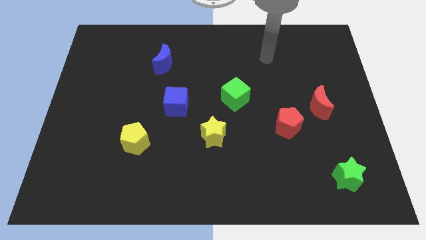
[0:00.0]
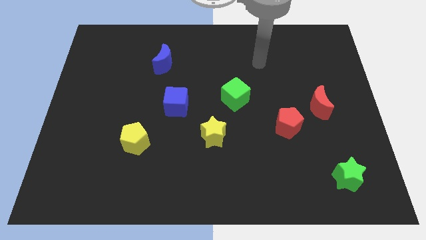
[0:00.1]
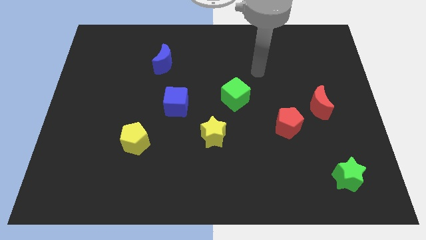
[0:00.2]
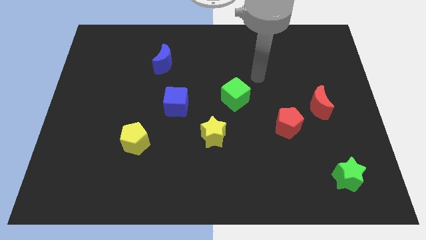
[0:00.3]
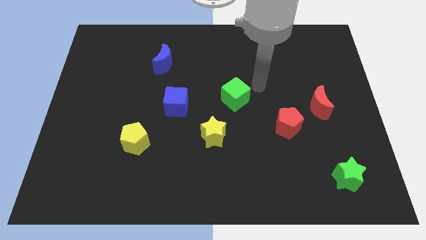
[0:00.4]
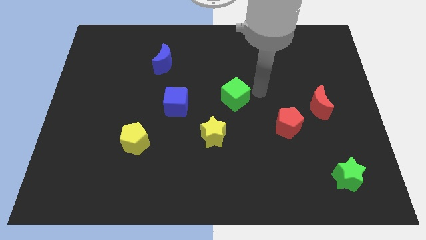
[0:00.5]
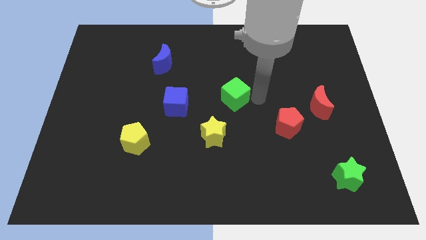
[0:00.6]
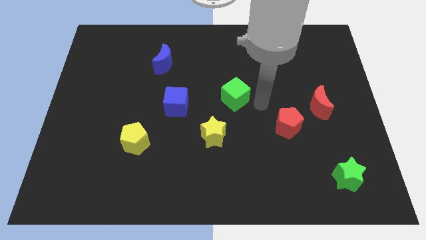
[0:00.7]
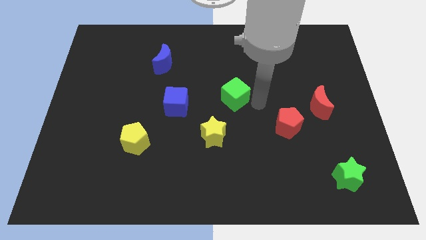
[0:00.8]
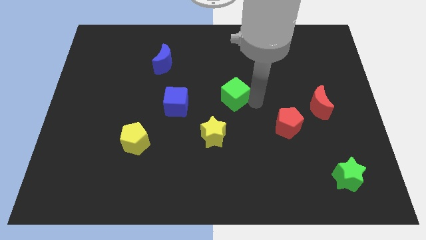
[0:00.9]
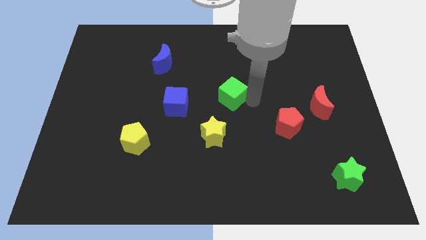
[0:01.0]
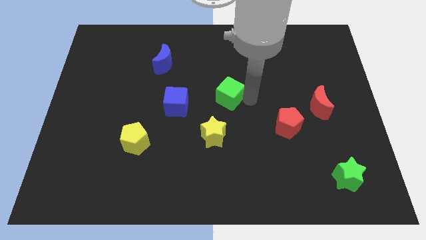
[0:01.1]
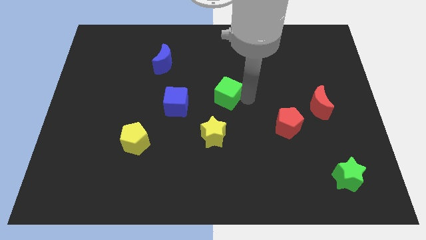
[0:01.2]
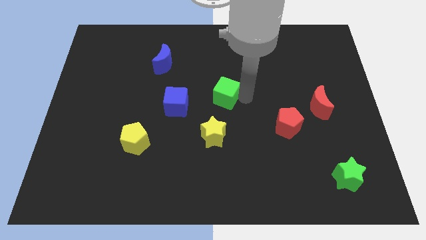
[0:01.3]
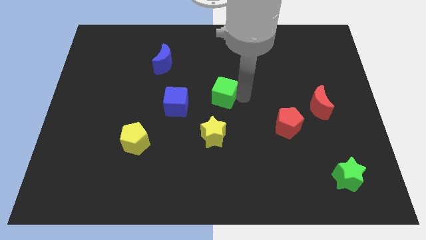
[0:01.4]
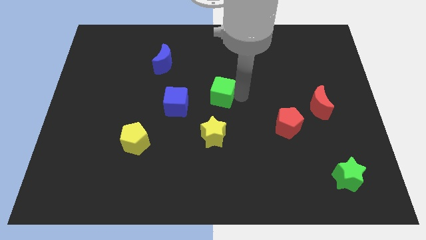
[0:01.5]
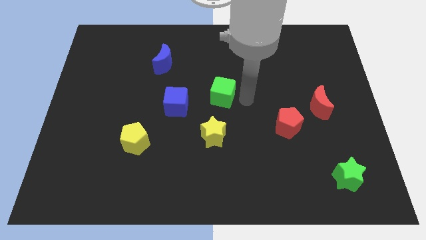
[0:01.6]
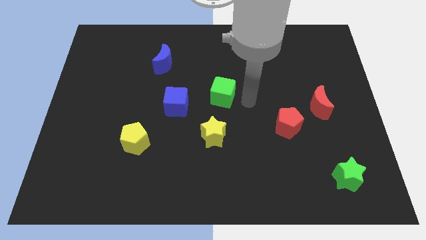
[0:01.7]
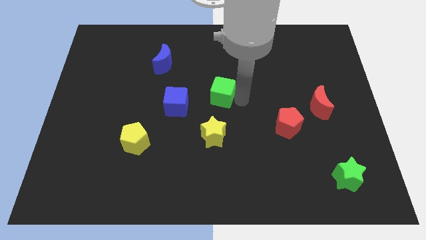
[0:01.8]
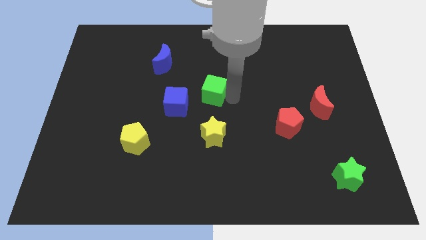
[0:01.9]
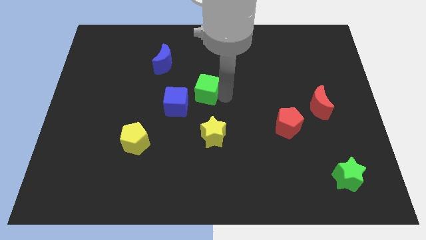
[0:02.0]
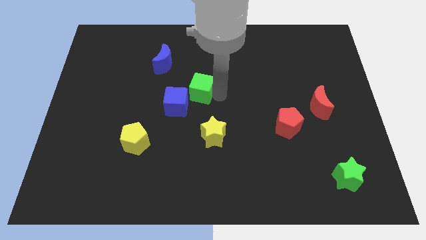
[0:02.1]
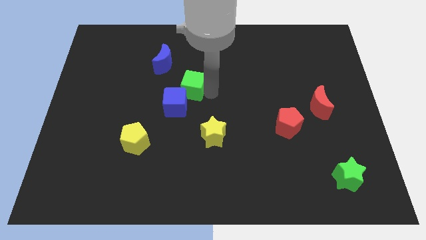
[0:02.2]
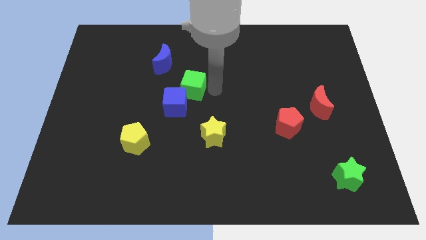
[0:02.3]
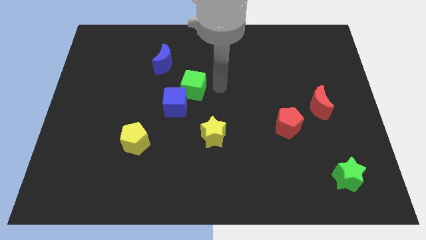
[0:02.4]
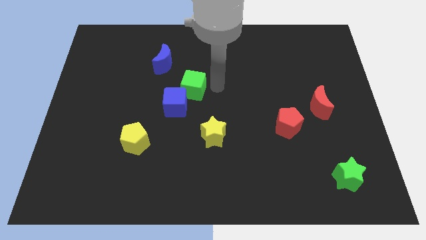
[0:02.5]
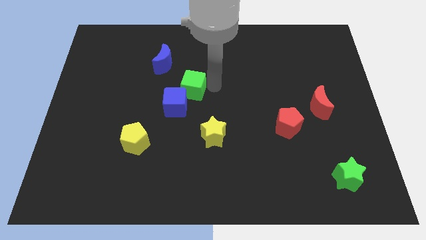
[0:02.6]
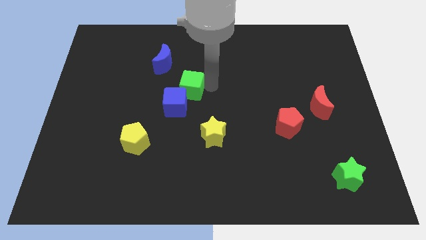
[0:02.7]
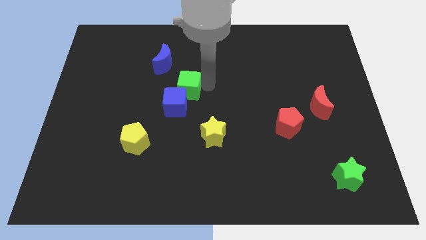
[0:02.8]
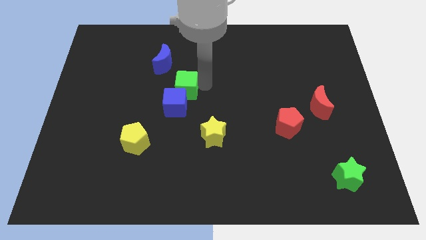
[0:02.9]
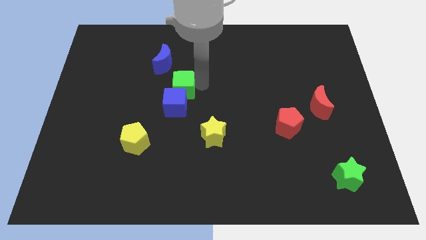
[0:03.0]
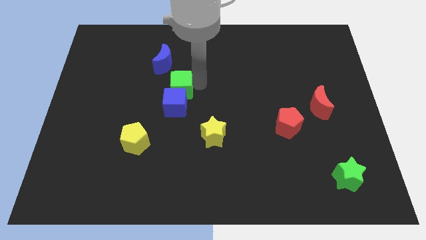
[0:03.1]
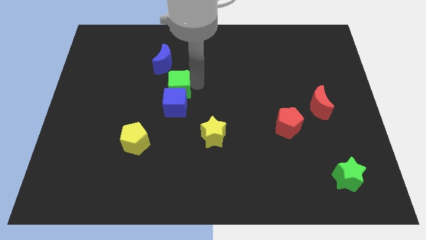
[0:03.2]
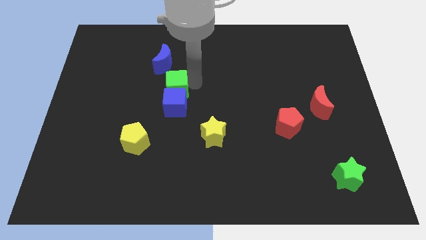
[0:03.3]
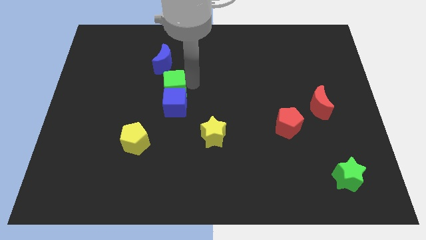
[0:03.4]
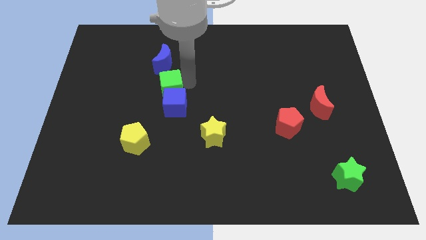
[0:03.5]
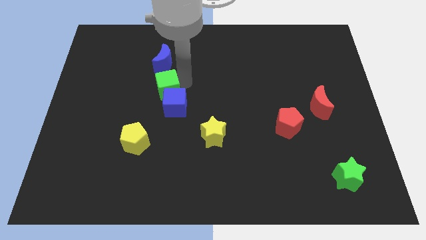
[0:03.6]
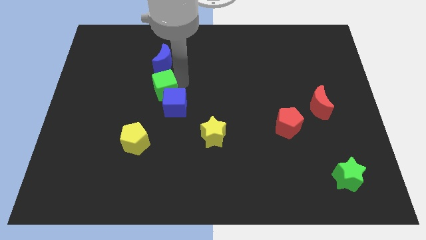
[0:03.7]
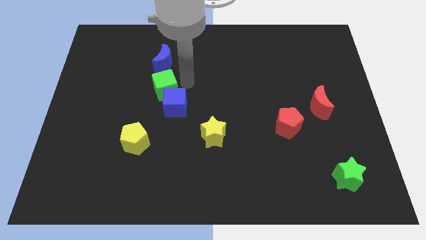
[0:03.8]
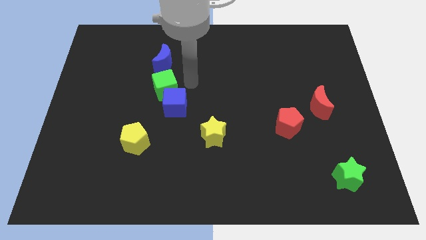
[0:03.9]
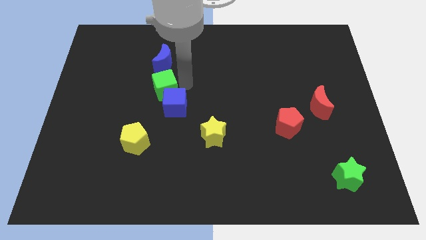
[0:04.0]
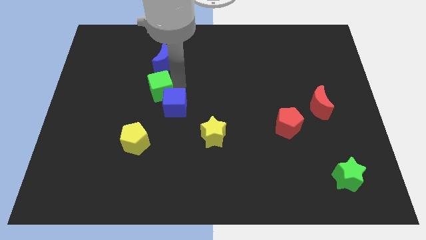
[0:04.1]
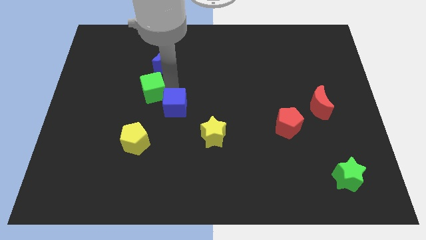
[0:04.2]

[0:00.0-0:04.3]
slide the green cube to the left

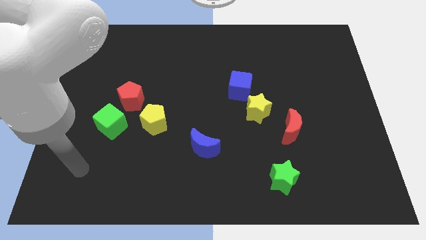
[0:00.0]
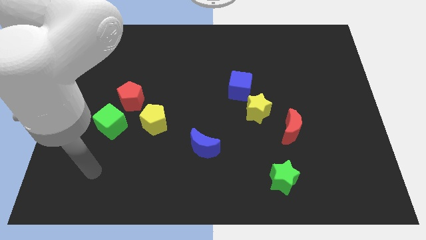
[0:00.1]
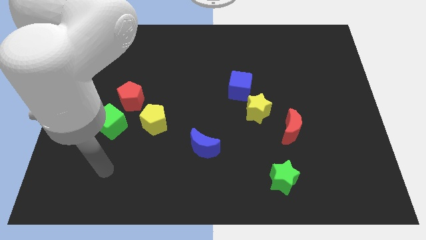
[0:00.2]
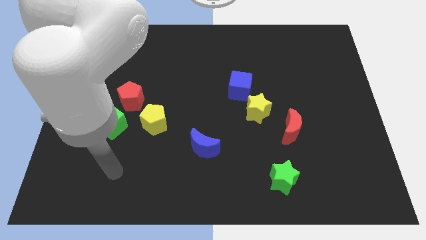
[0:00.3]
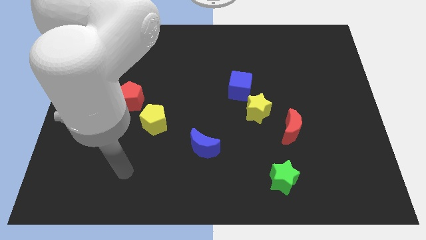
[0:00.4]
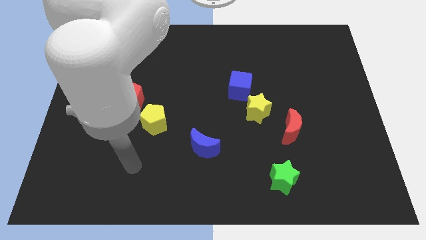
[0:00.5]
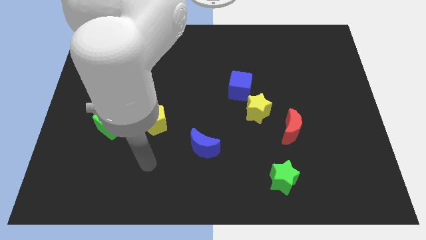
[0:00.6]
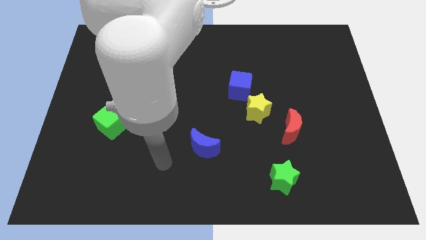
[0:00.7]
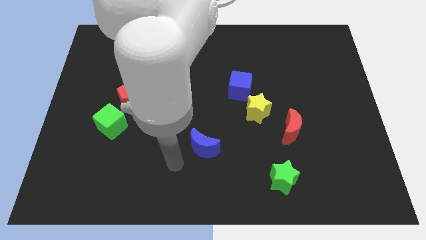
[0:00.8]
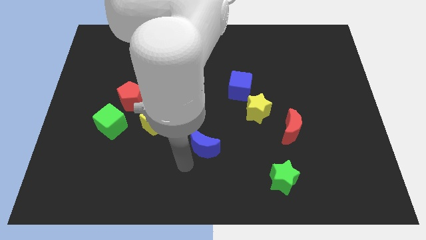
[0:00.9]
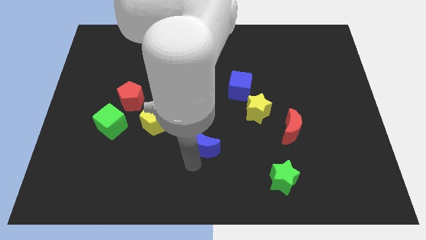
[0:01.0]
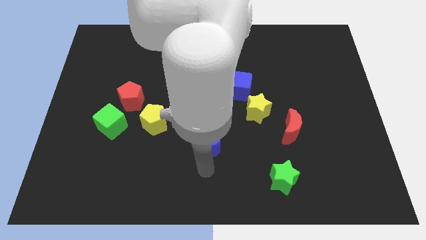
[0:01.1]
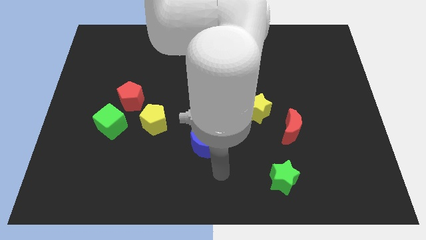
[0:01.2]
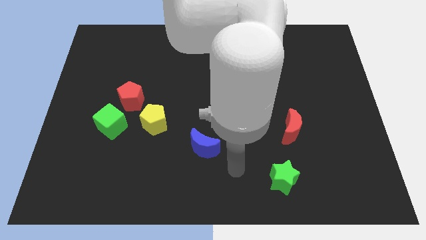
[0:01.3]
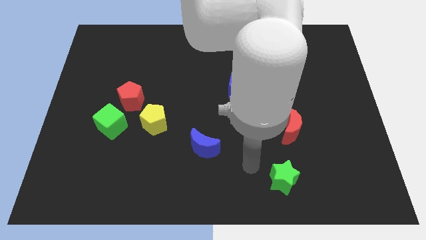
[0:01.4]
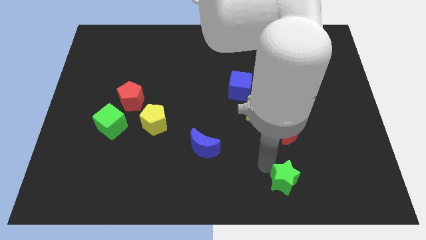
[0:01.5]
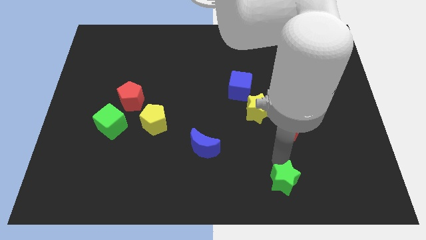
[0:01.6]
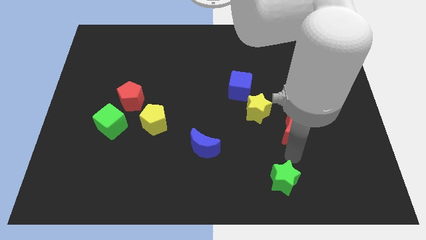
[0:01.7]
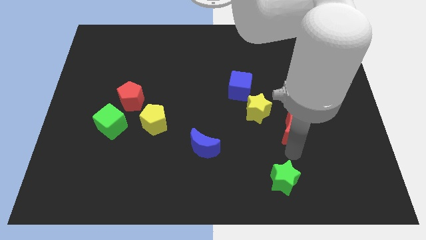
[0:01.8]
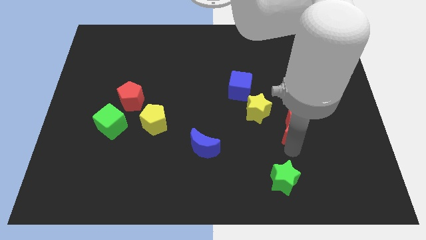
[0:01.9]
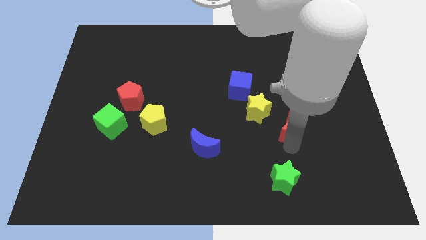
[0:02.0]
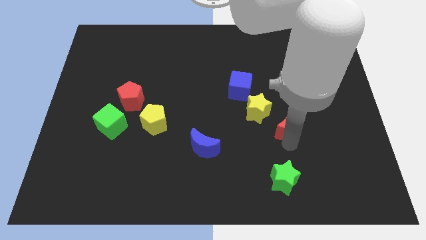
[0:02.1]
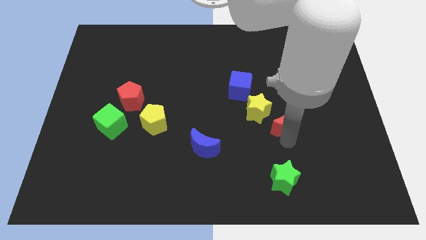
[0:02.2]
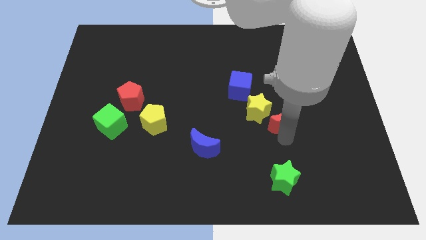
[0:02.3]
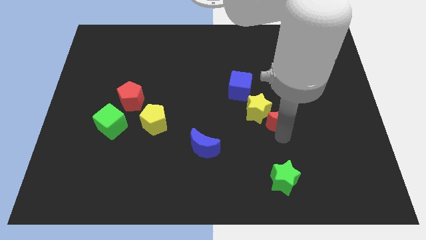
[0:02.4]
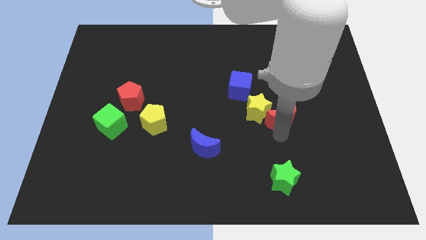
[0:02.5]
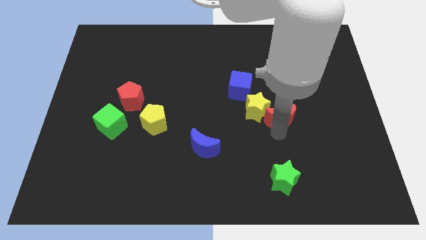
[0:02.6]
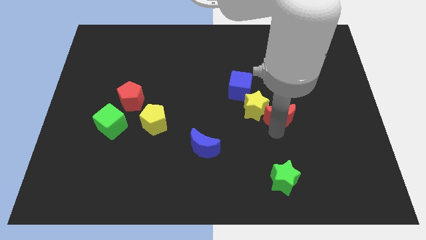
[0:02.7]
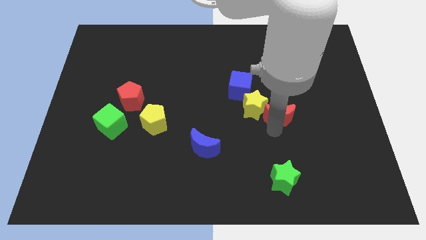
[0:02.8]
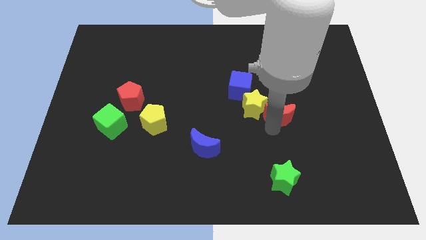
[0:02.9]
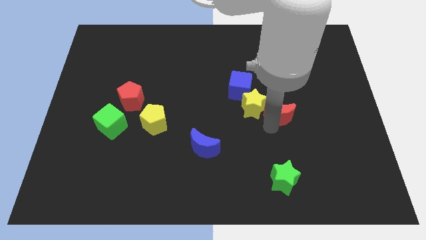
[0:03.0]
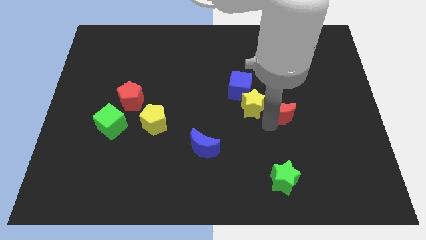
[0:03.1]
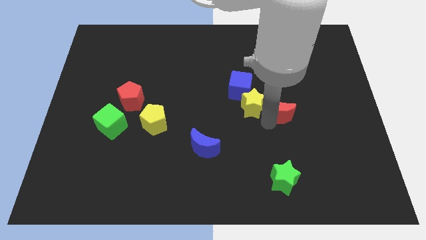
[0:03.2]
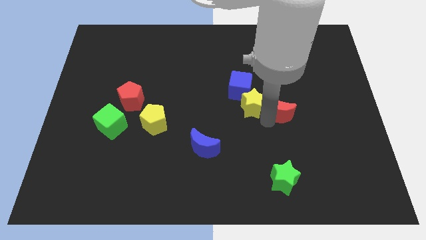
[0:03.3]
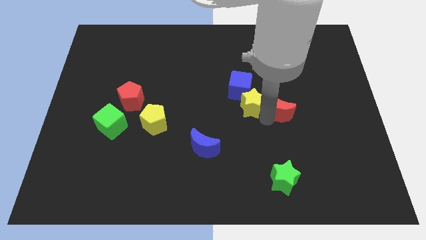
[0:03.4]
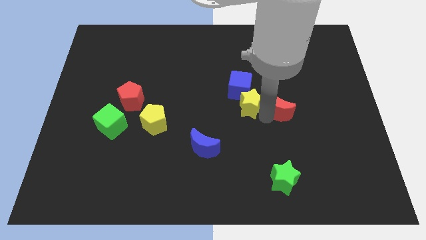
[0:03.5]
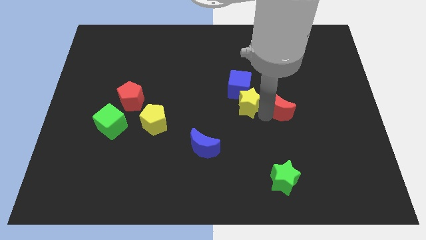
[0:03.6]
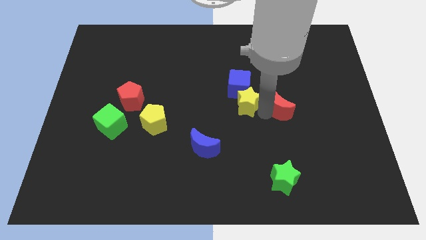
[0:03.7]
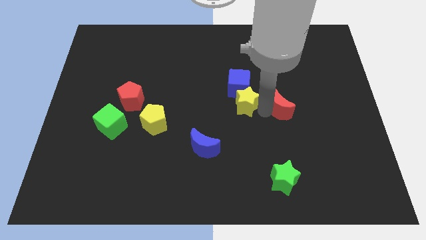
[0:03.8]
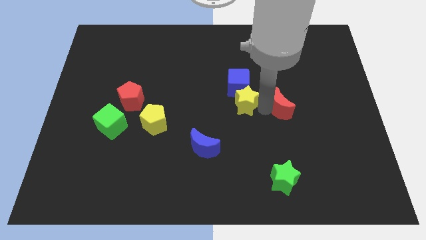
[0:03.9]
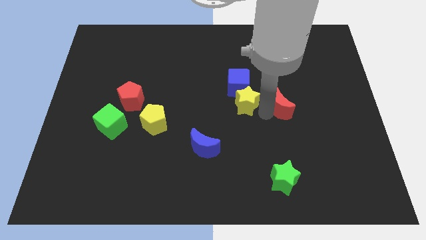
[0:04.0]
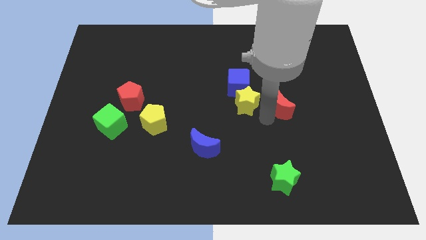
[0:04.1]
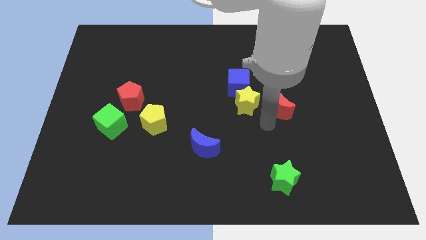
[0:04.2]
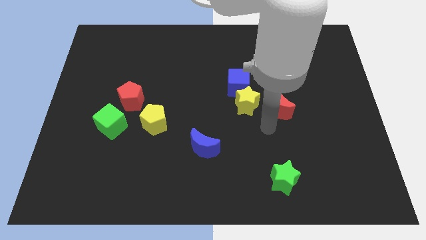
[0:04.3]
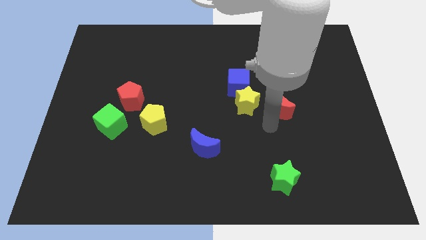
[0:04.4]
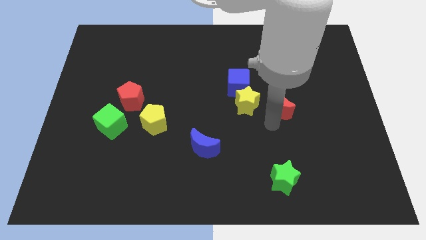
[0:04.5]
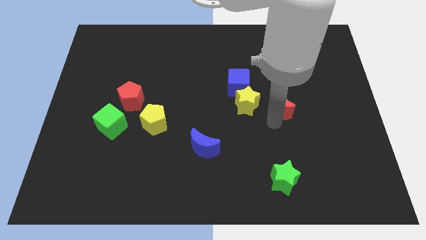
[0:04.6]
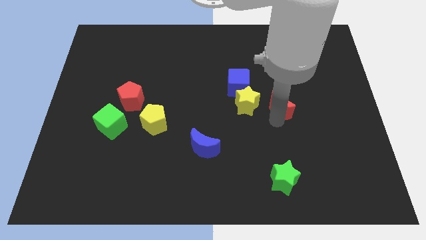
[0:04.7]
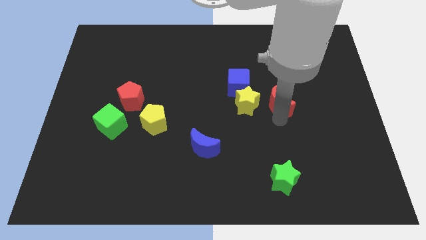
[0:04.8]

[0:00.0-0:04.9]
slide the red moon up somewhat
